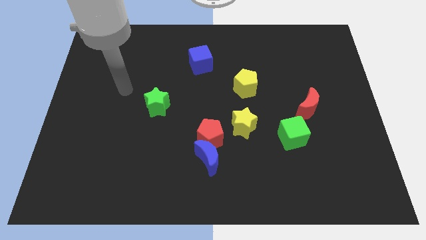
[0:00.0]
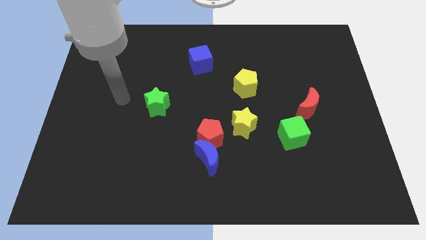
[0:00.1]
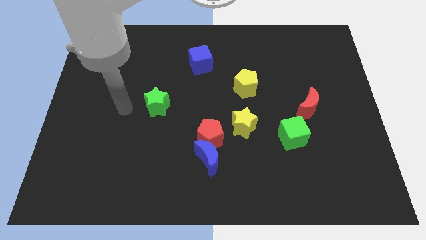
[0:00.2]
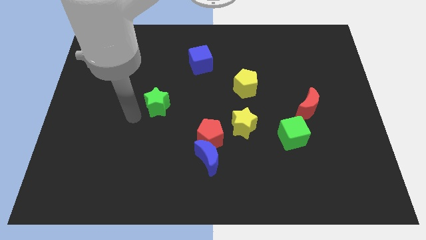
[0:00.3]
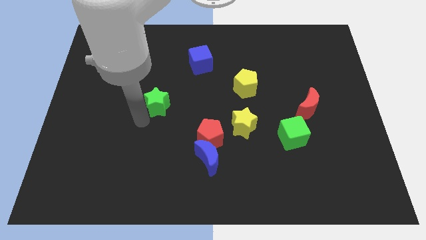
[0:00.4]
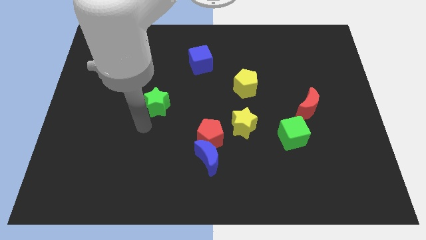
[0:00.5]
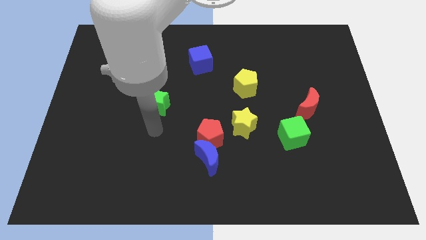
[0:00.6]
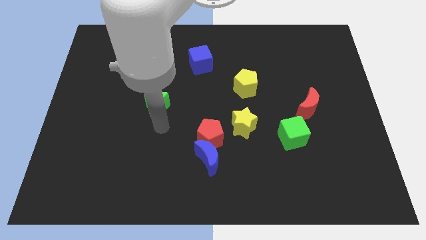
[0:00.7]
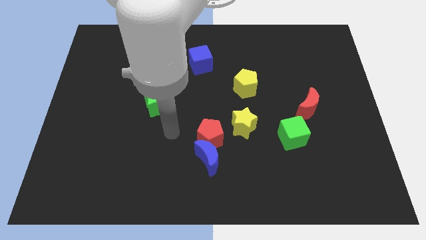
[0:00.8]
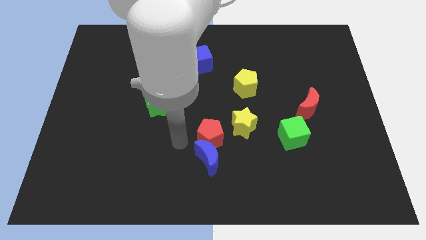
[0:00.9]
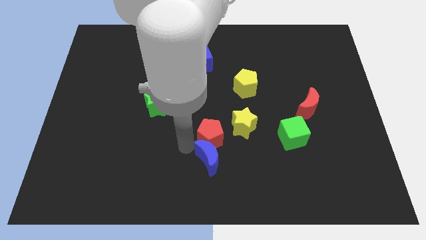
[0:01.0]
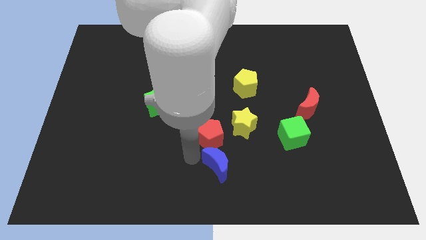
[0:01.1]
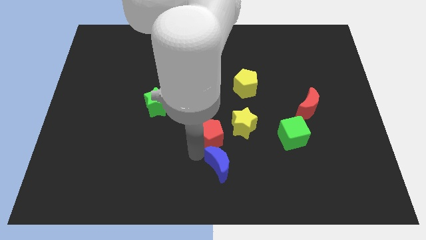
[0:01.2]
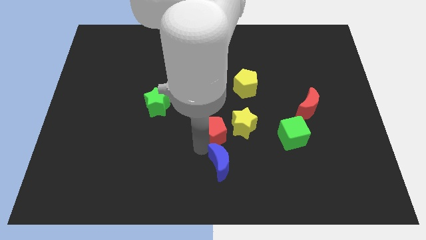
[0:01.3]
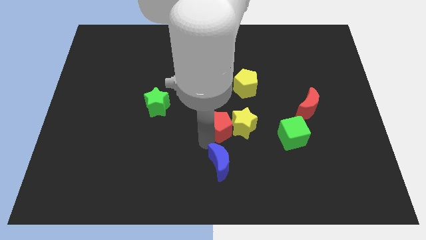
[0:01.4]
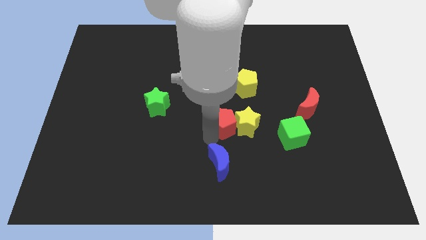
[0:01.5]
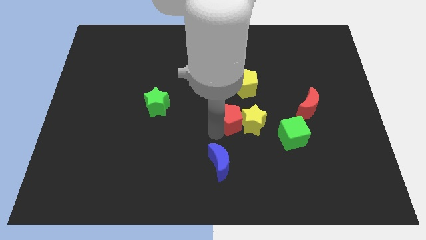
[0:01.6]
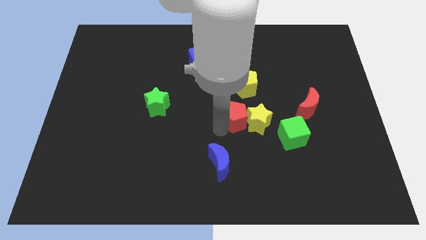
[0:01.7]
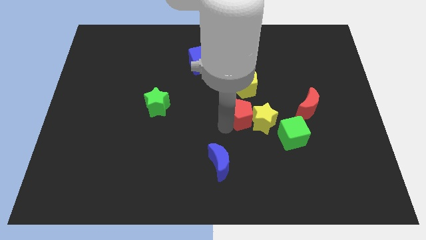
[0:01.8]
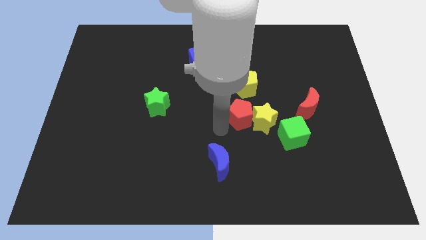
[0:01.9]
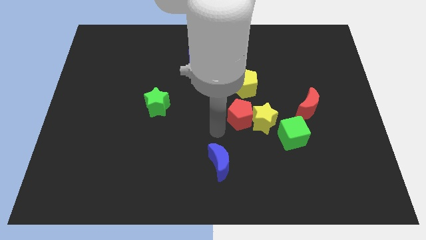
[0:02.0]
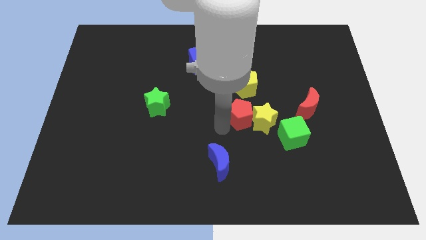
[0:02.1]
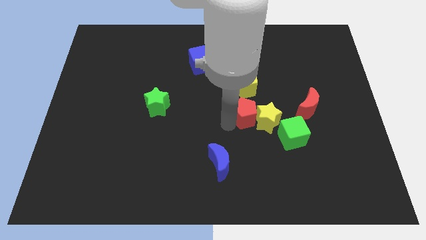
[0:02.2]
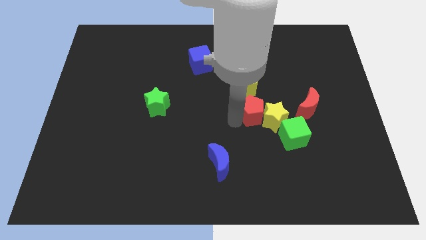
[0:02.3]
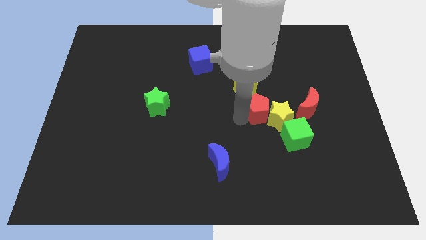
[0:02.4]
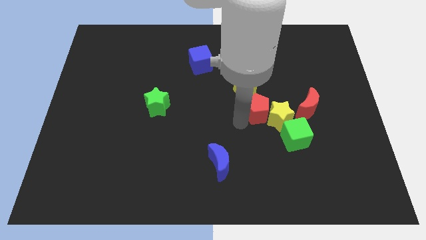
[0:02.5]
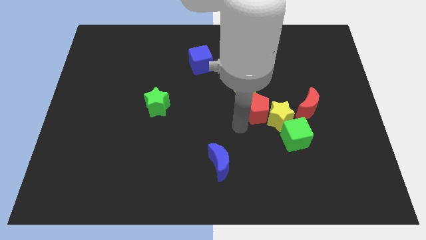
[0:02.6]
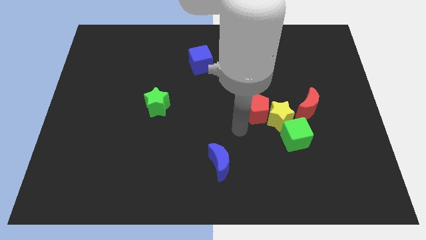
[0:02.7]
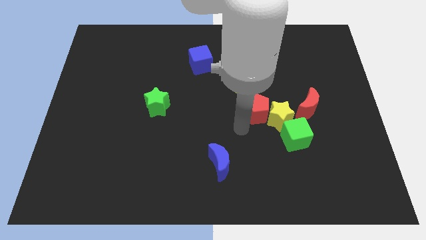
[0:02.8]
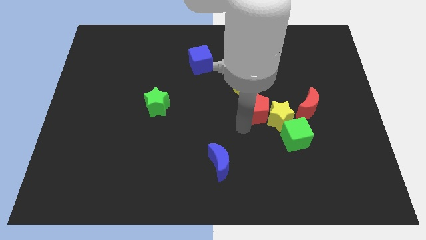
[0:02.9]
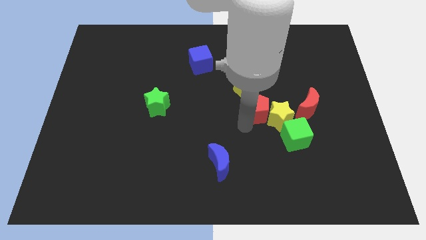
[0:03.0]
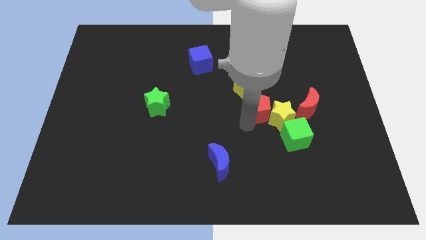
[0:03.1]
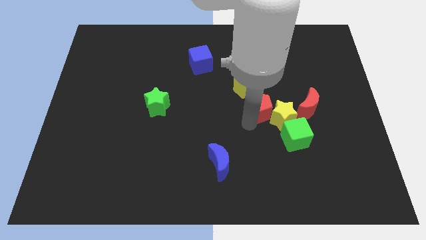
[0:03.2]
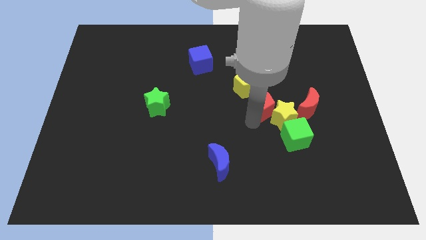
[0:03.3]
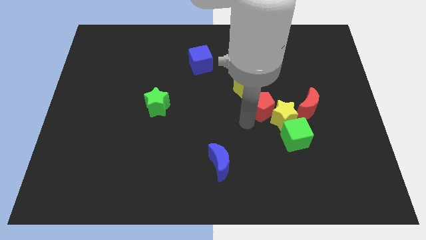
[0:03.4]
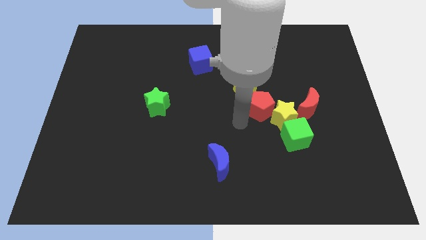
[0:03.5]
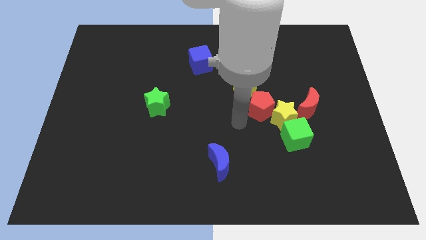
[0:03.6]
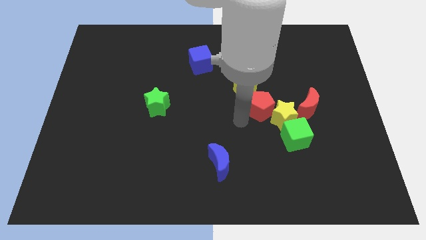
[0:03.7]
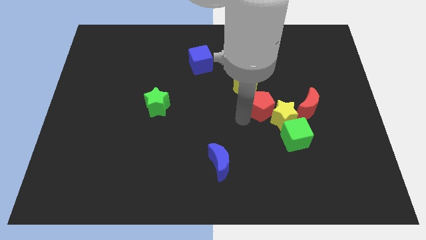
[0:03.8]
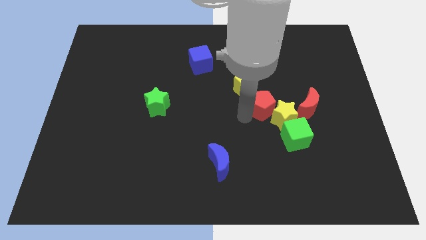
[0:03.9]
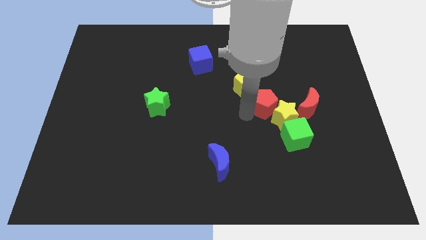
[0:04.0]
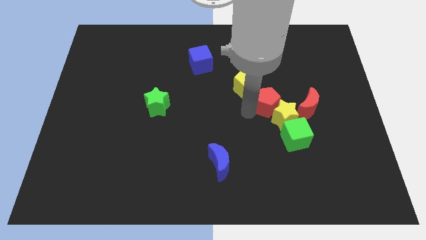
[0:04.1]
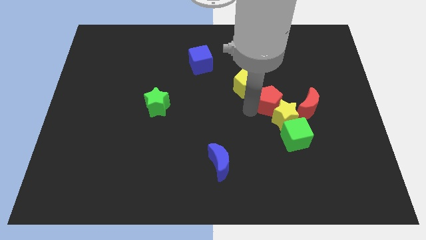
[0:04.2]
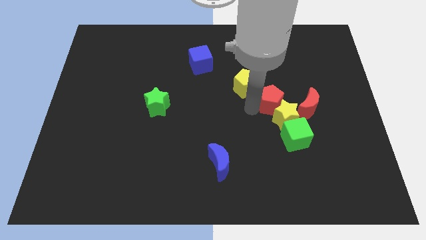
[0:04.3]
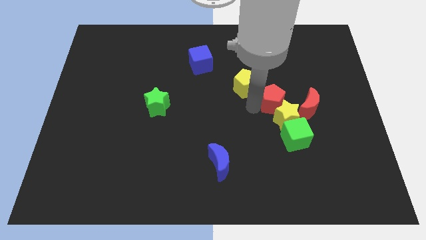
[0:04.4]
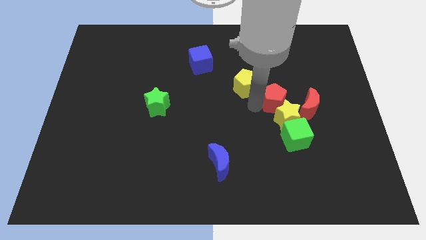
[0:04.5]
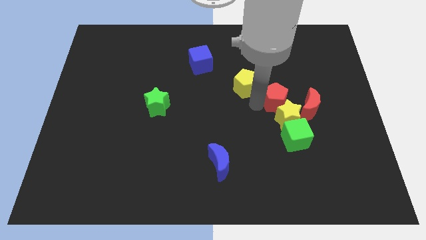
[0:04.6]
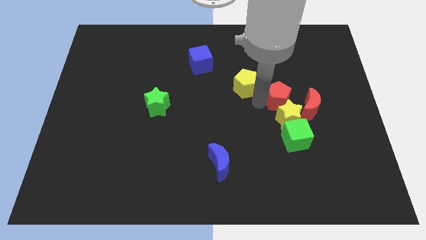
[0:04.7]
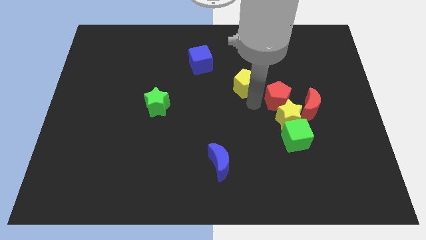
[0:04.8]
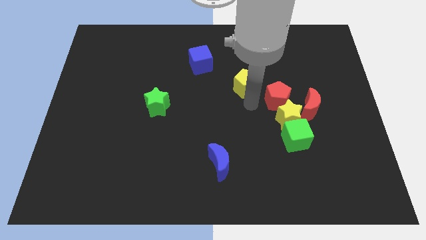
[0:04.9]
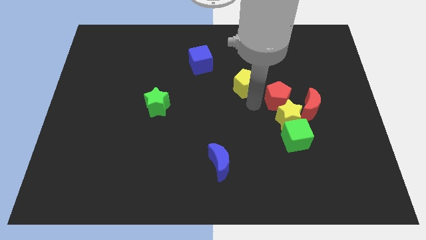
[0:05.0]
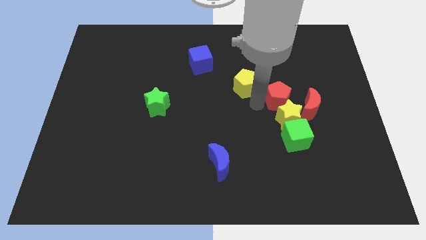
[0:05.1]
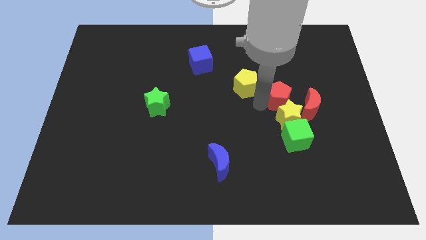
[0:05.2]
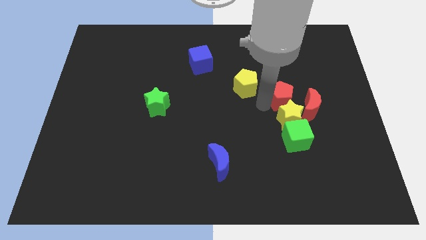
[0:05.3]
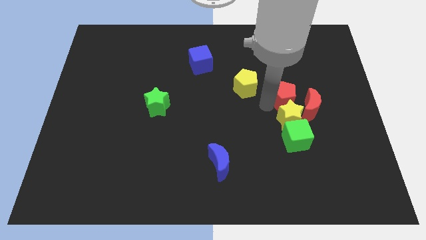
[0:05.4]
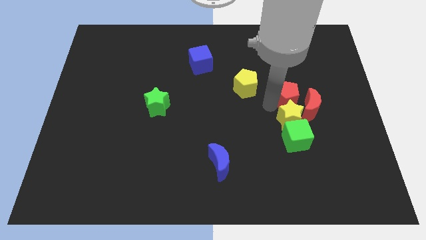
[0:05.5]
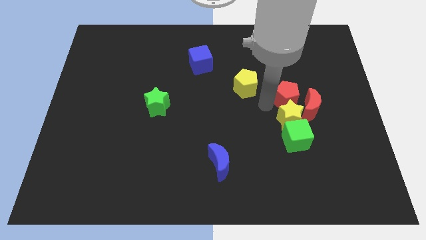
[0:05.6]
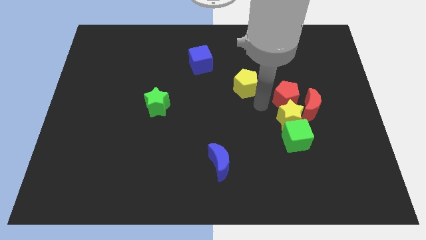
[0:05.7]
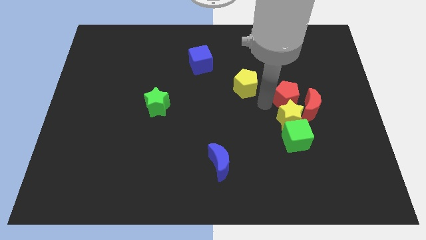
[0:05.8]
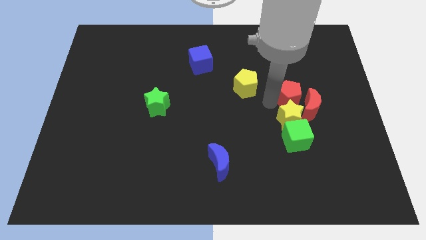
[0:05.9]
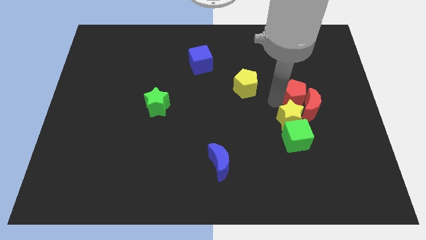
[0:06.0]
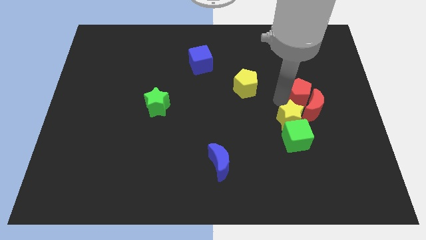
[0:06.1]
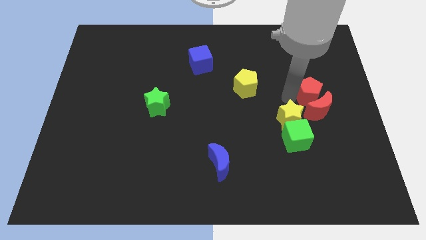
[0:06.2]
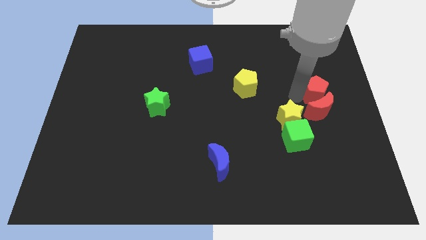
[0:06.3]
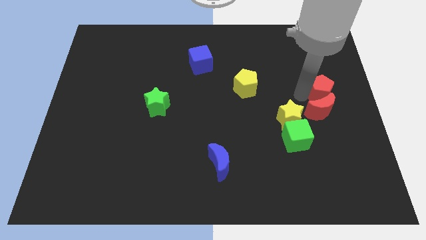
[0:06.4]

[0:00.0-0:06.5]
move the red pentagon to the right side
